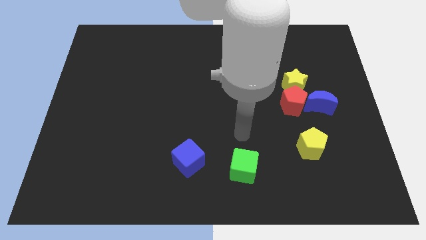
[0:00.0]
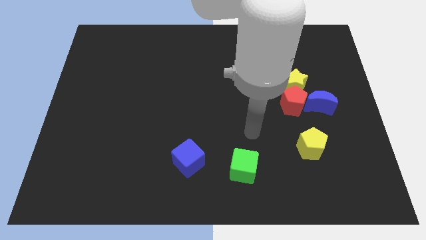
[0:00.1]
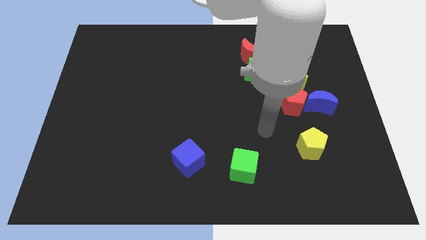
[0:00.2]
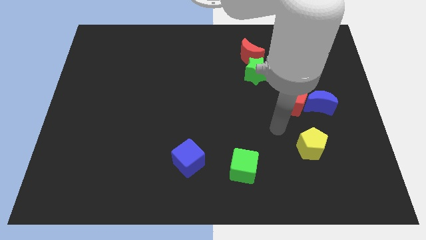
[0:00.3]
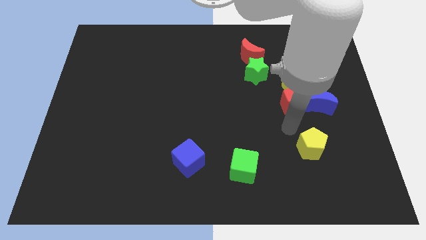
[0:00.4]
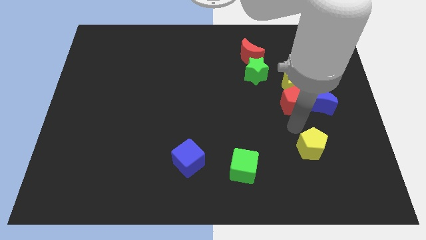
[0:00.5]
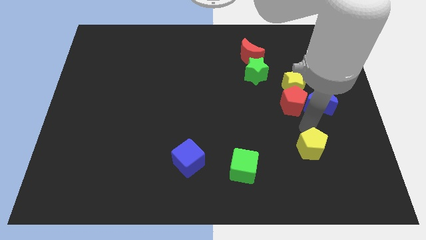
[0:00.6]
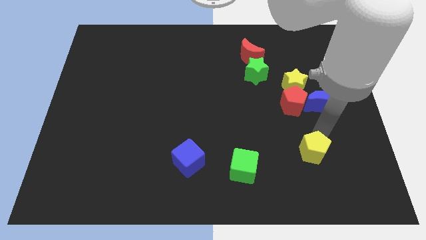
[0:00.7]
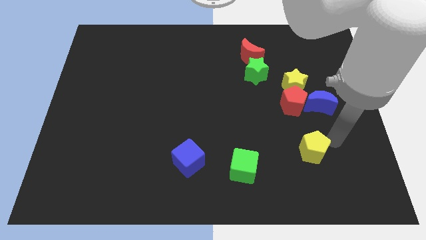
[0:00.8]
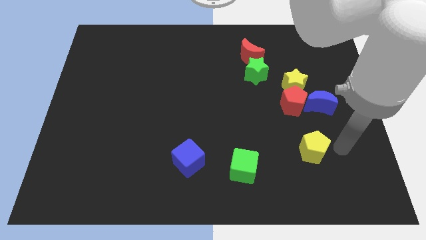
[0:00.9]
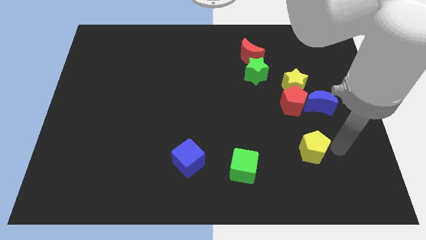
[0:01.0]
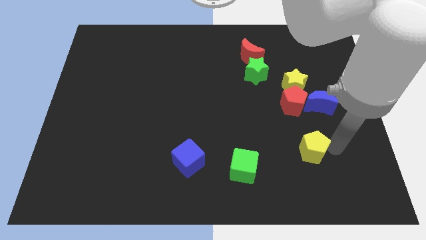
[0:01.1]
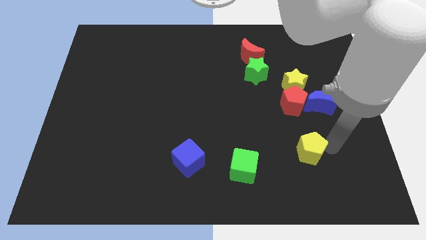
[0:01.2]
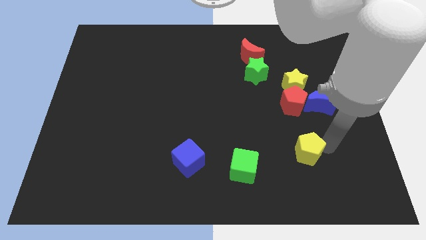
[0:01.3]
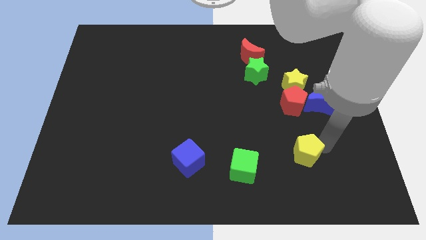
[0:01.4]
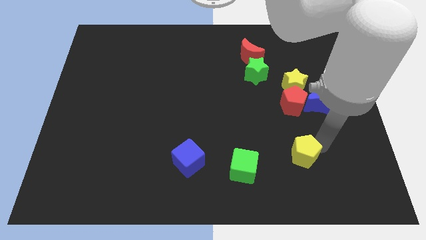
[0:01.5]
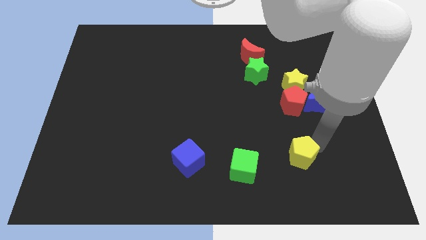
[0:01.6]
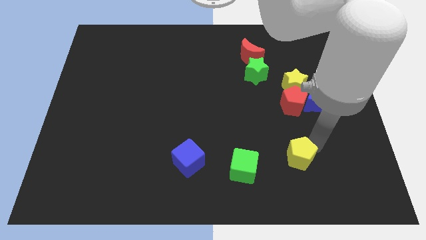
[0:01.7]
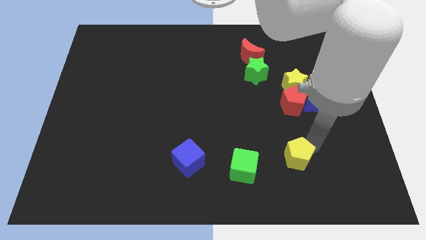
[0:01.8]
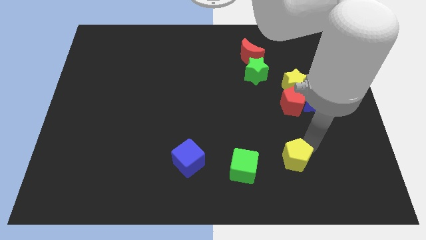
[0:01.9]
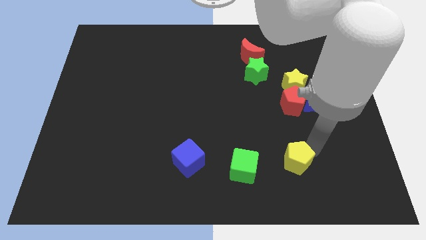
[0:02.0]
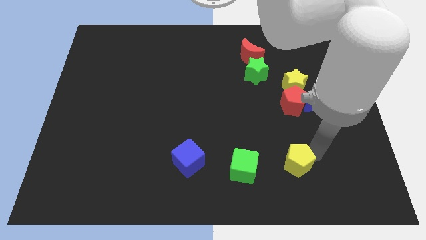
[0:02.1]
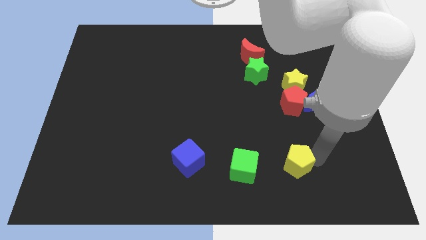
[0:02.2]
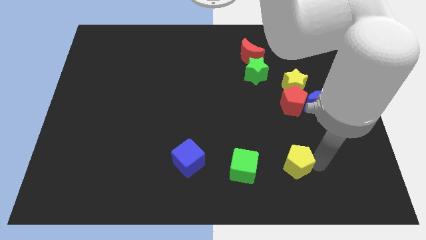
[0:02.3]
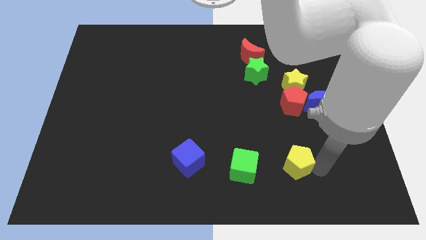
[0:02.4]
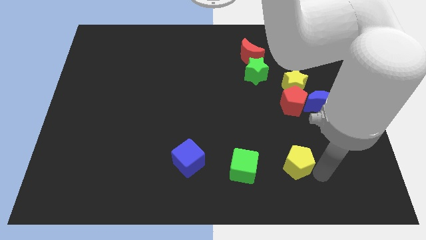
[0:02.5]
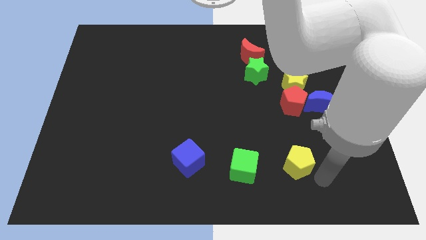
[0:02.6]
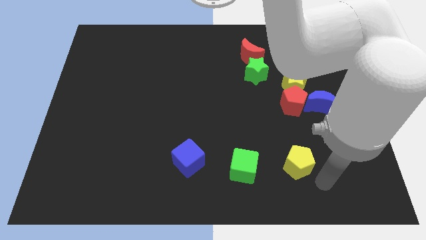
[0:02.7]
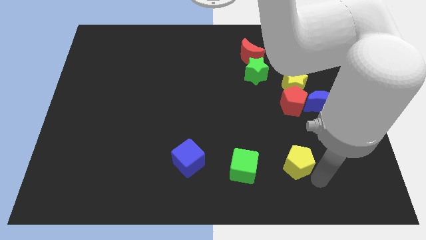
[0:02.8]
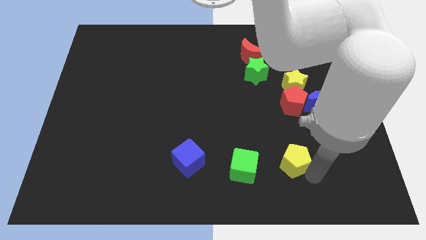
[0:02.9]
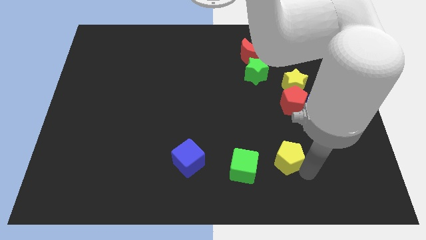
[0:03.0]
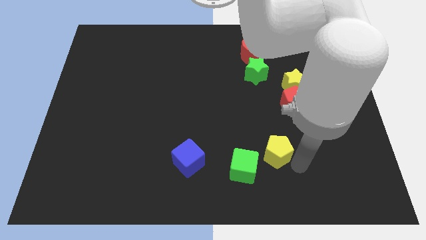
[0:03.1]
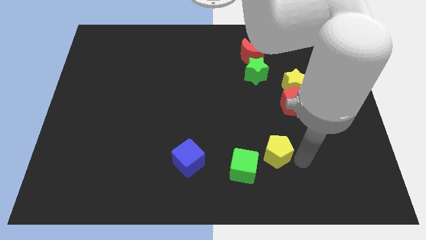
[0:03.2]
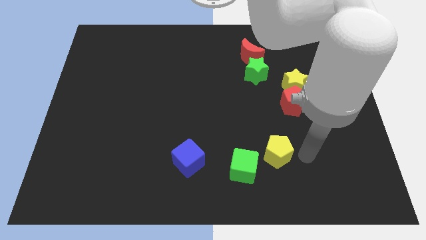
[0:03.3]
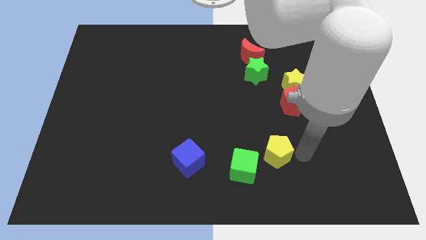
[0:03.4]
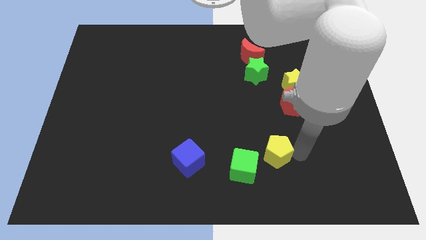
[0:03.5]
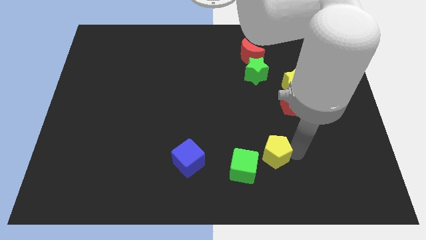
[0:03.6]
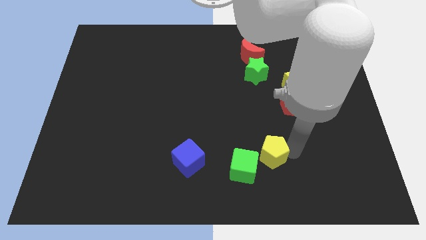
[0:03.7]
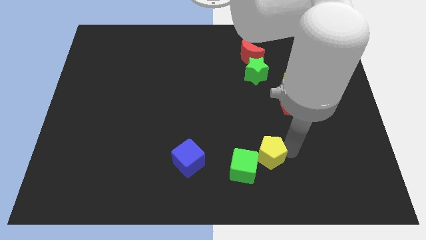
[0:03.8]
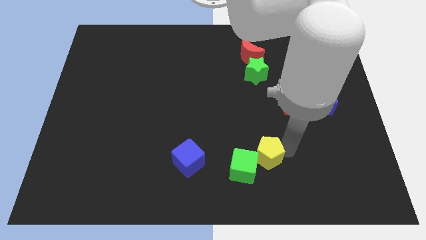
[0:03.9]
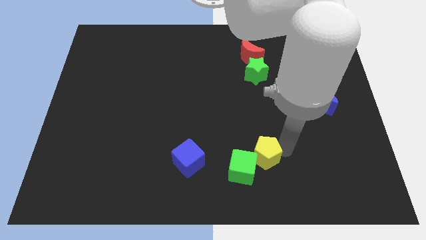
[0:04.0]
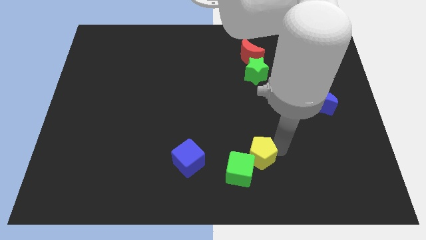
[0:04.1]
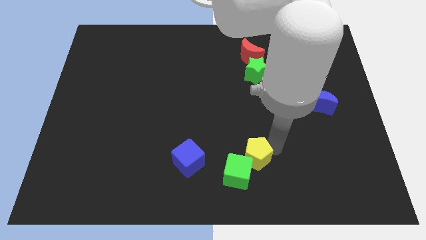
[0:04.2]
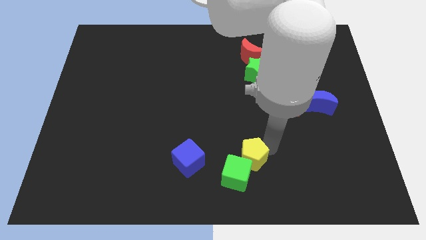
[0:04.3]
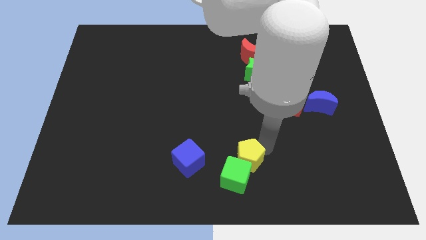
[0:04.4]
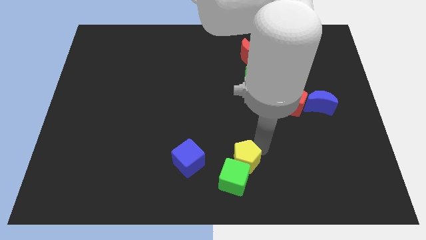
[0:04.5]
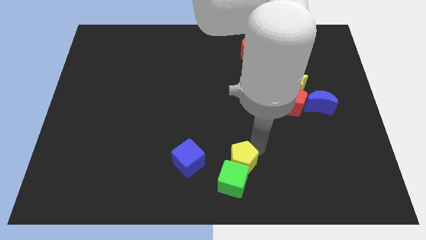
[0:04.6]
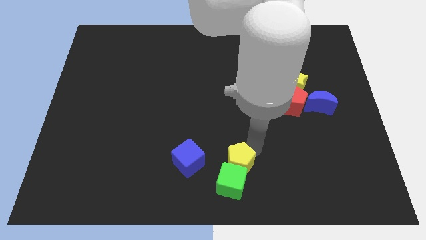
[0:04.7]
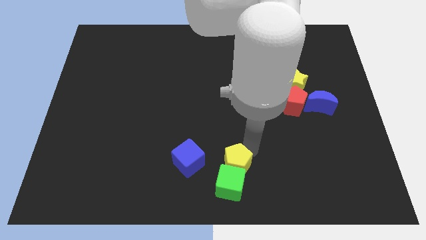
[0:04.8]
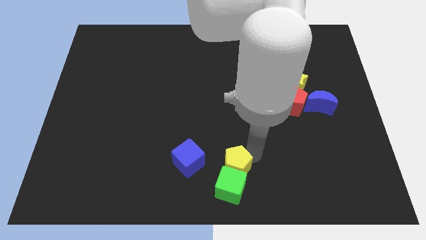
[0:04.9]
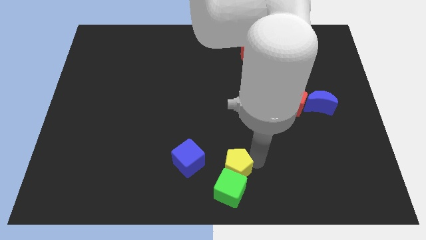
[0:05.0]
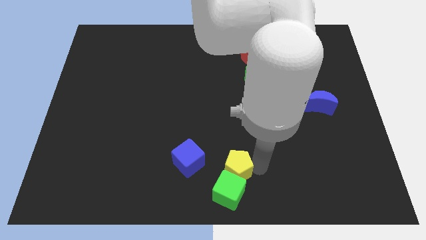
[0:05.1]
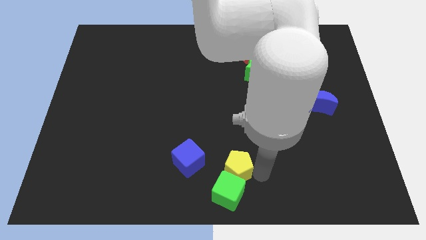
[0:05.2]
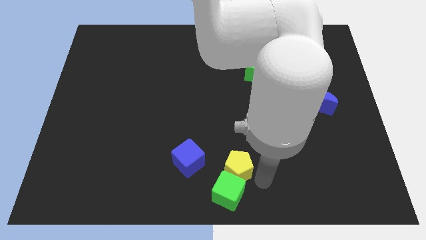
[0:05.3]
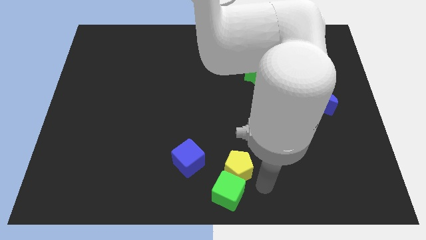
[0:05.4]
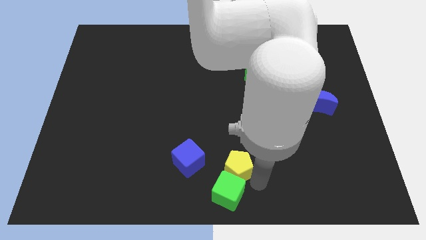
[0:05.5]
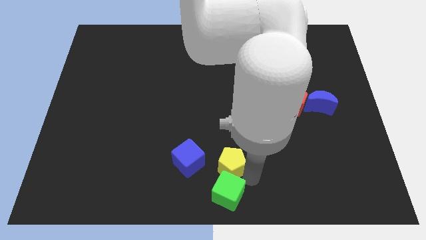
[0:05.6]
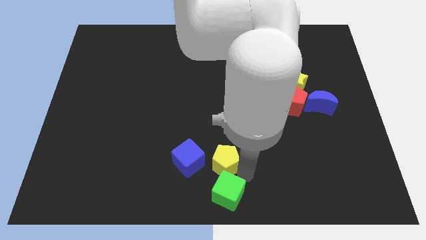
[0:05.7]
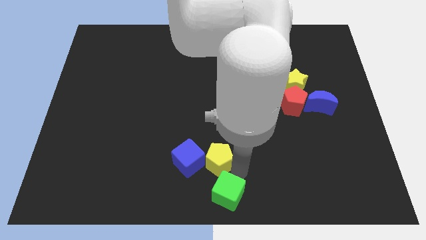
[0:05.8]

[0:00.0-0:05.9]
move the yellow pentagon close to the blue cube

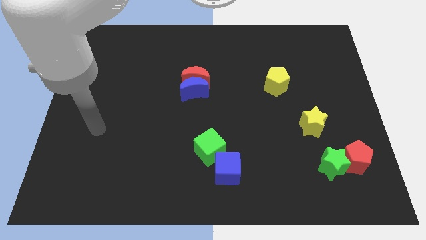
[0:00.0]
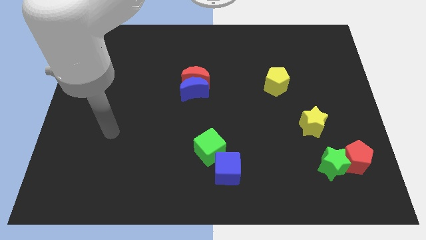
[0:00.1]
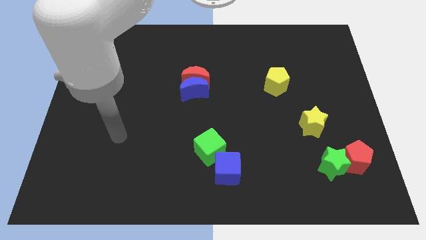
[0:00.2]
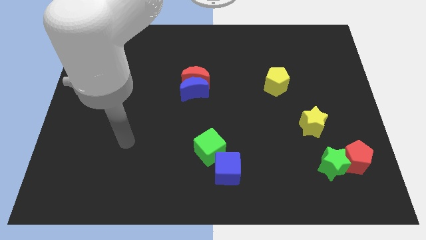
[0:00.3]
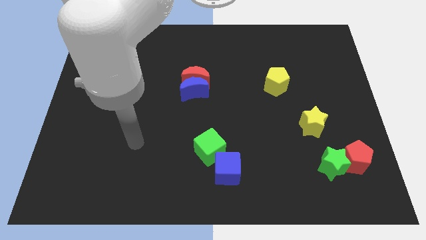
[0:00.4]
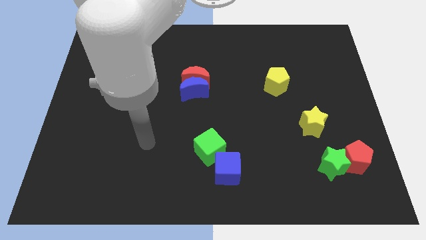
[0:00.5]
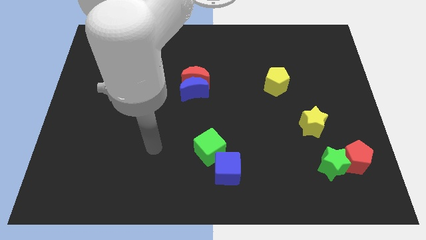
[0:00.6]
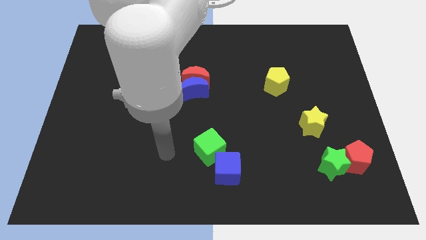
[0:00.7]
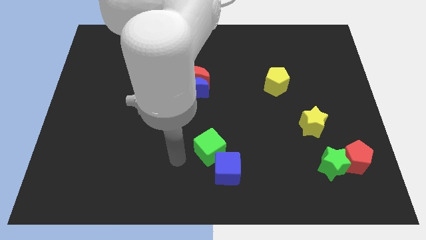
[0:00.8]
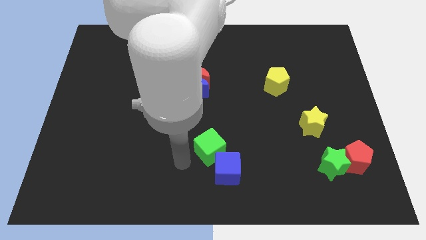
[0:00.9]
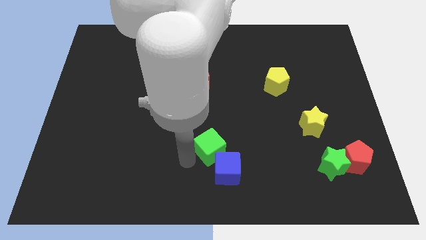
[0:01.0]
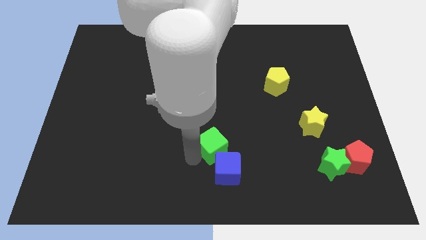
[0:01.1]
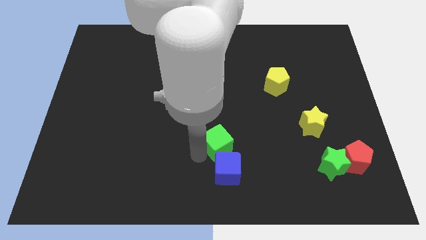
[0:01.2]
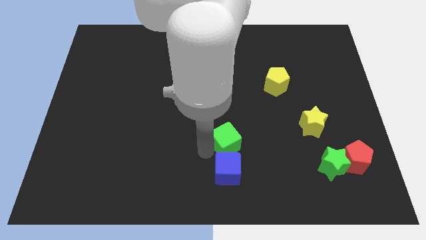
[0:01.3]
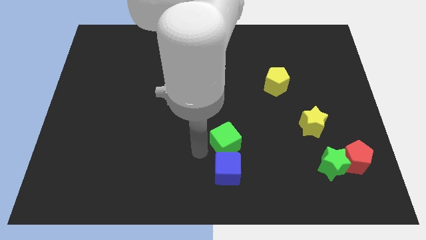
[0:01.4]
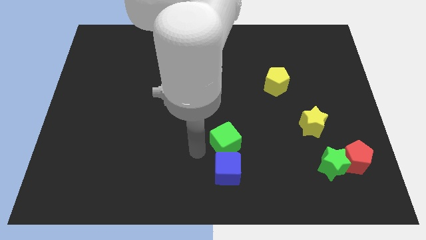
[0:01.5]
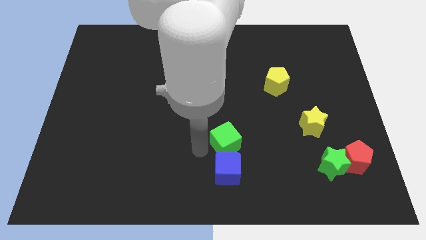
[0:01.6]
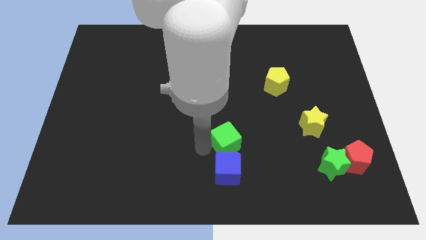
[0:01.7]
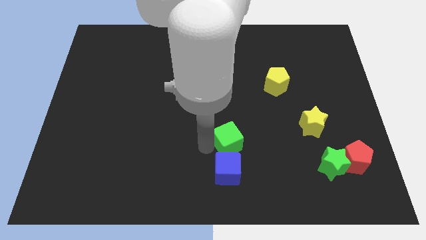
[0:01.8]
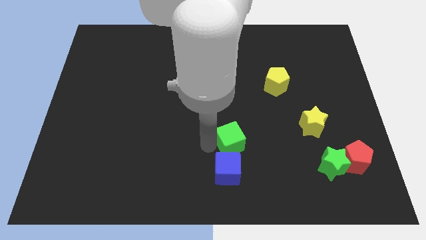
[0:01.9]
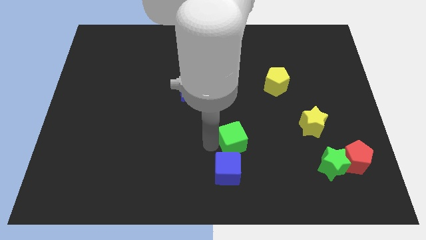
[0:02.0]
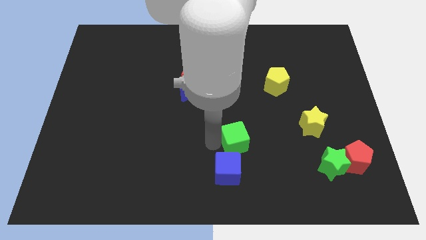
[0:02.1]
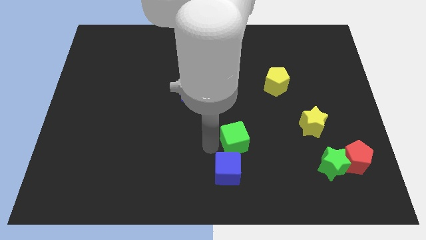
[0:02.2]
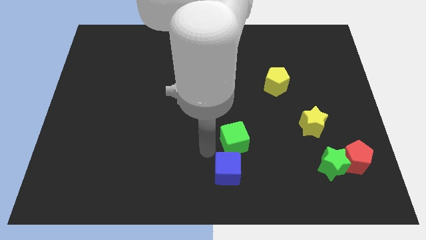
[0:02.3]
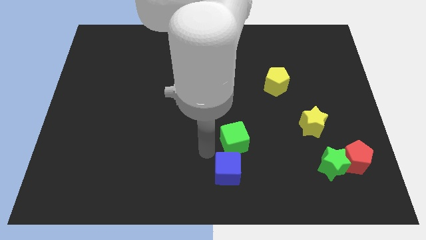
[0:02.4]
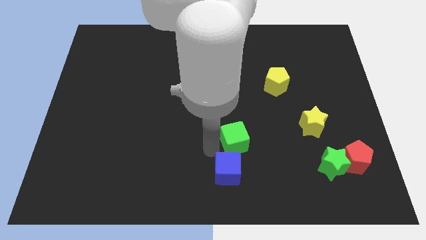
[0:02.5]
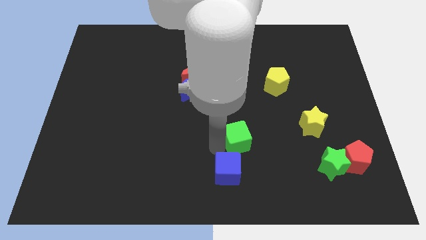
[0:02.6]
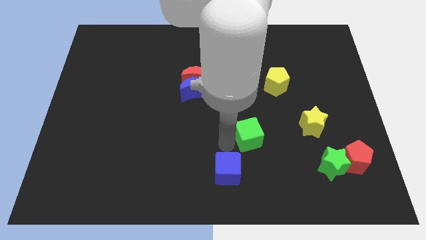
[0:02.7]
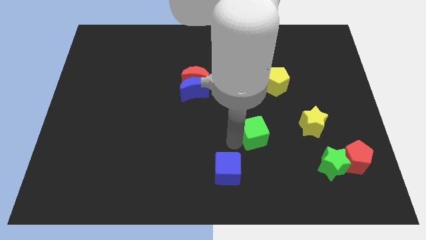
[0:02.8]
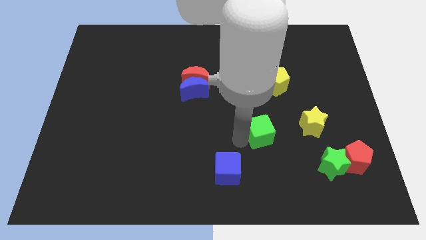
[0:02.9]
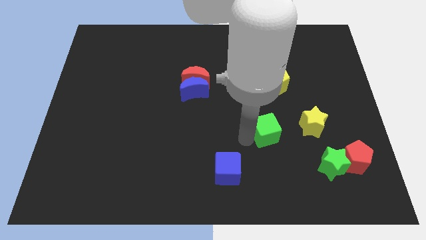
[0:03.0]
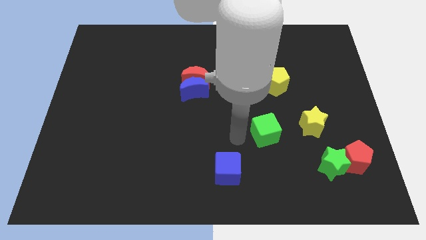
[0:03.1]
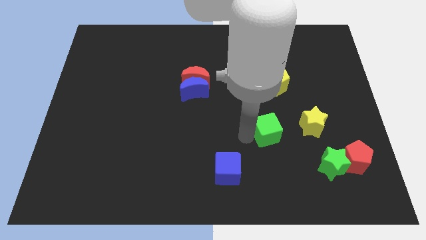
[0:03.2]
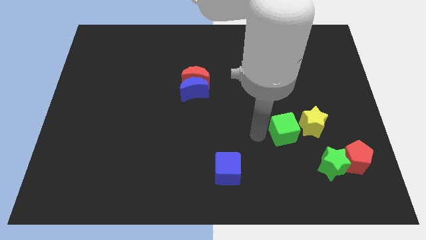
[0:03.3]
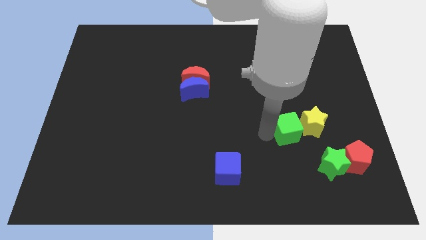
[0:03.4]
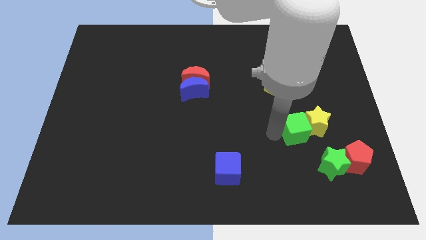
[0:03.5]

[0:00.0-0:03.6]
put the green cube to the yellow star
